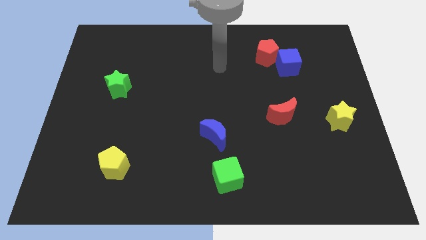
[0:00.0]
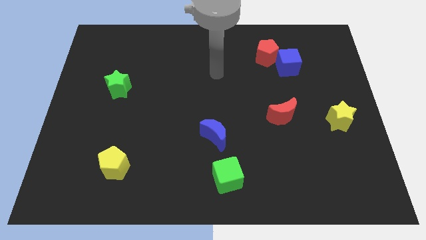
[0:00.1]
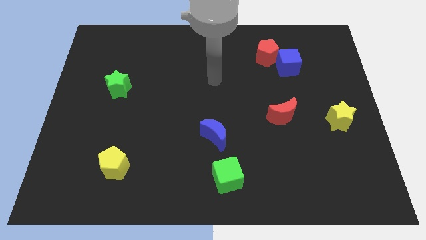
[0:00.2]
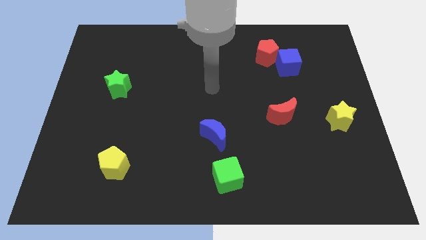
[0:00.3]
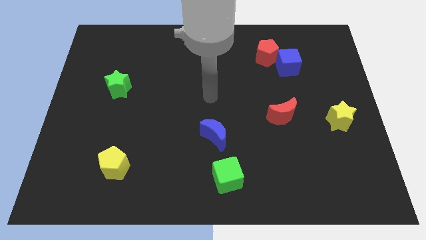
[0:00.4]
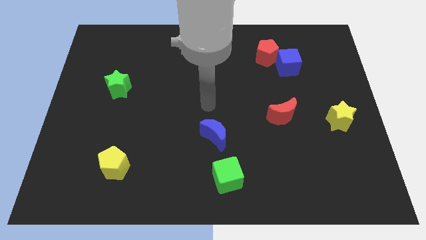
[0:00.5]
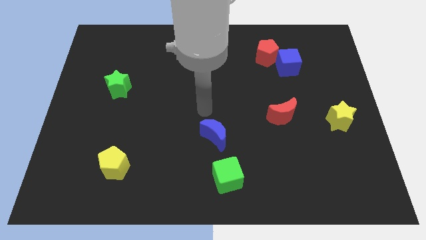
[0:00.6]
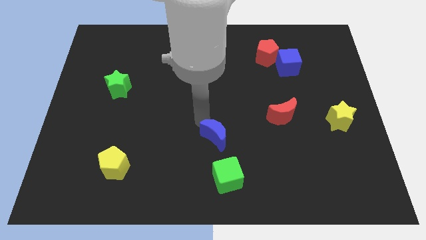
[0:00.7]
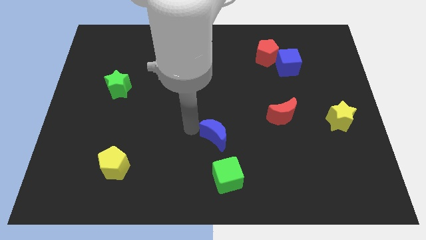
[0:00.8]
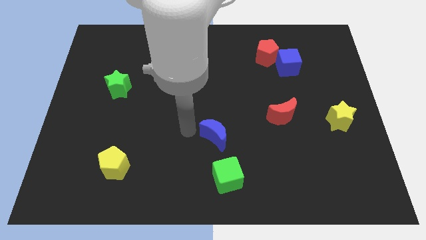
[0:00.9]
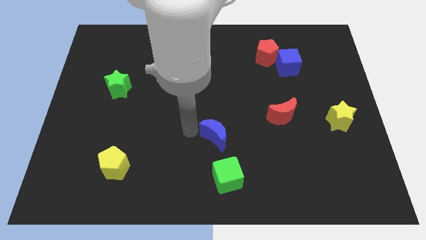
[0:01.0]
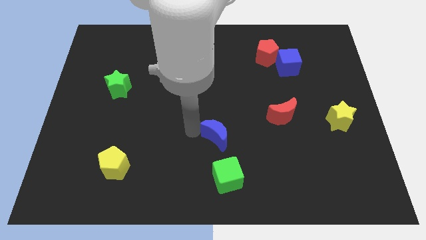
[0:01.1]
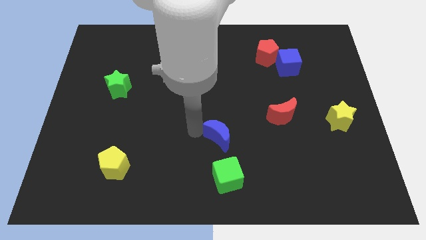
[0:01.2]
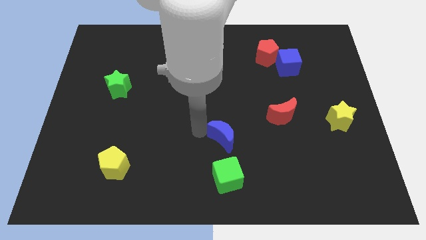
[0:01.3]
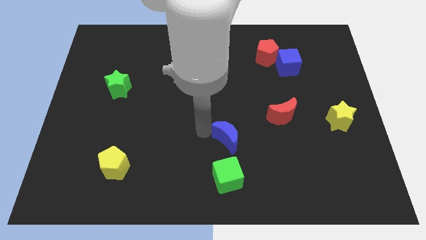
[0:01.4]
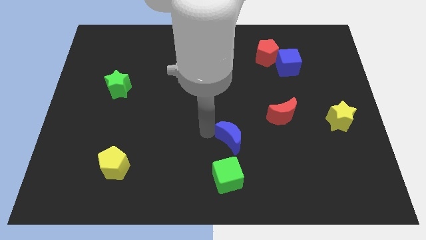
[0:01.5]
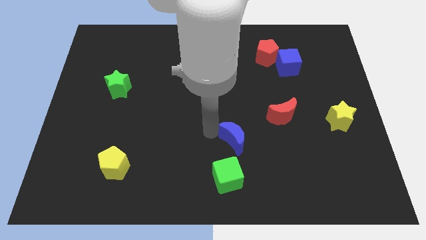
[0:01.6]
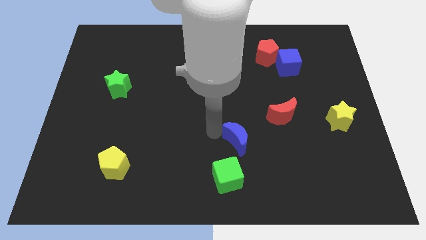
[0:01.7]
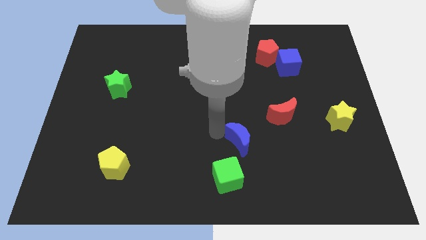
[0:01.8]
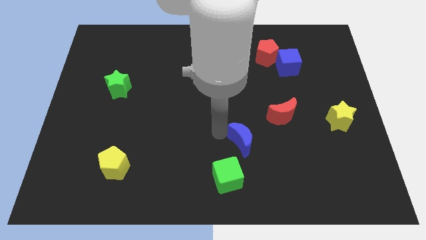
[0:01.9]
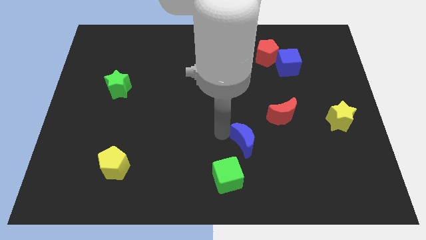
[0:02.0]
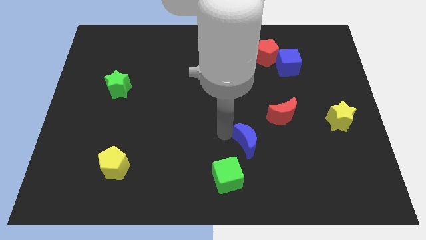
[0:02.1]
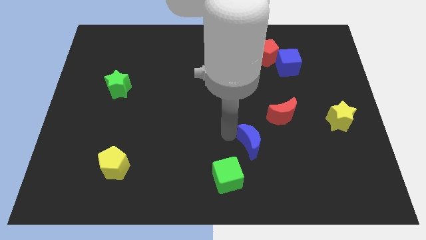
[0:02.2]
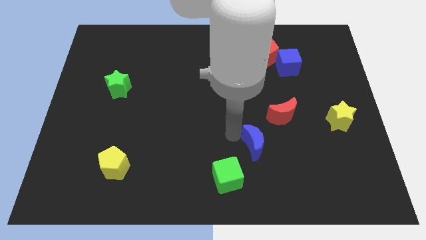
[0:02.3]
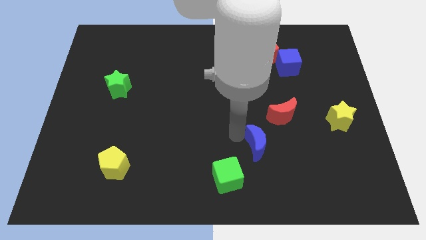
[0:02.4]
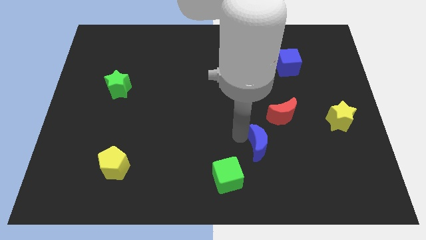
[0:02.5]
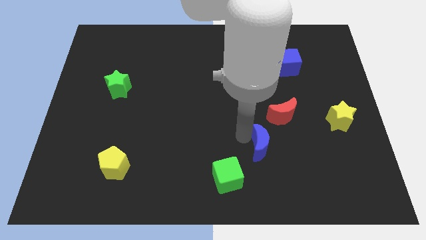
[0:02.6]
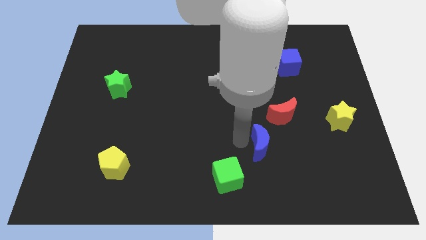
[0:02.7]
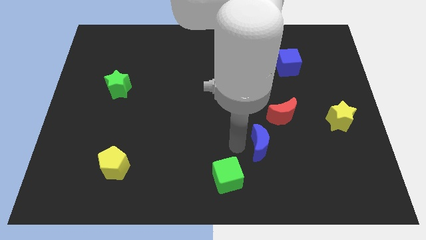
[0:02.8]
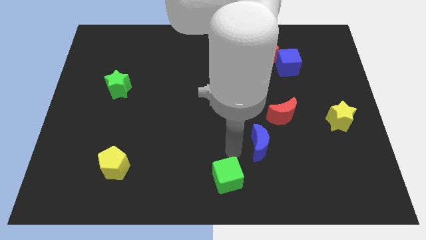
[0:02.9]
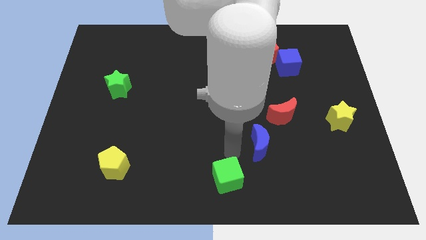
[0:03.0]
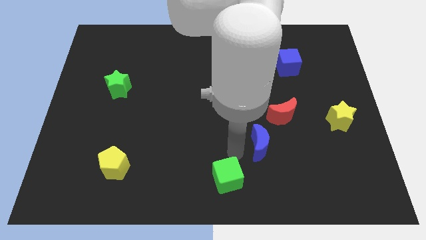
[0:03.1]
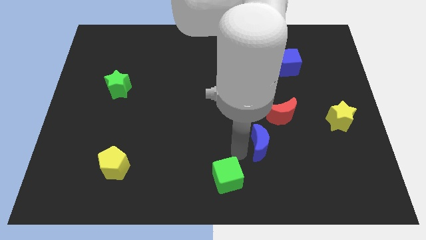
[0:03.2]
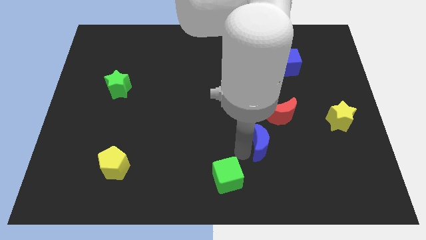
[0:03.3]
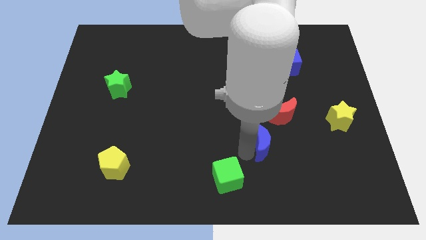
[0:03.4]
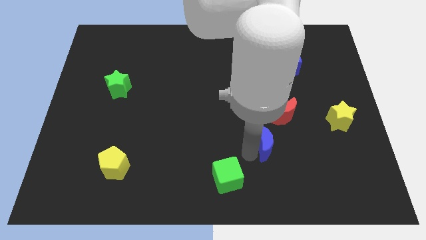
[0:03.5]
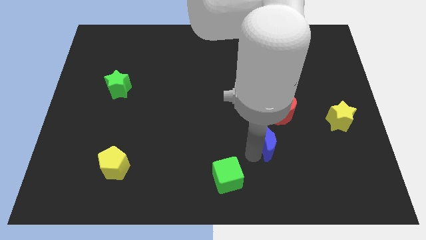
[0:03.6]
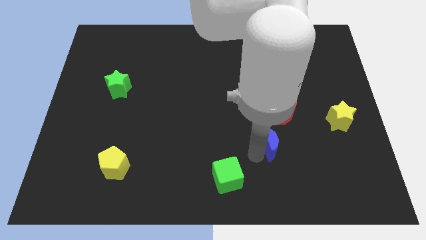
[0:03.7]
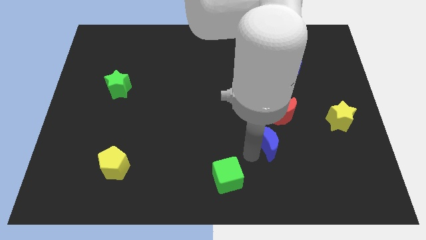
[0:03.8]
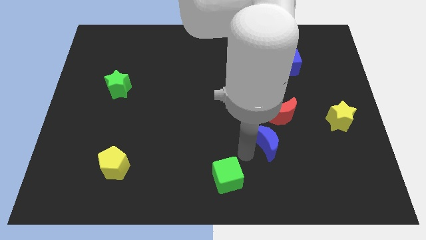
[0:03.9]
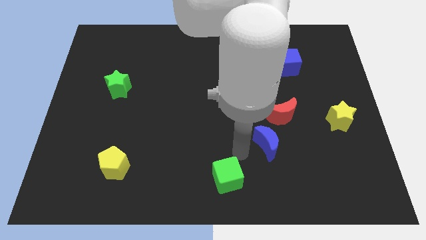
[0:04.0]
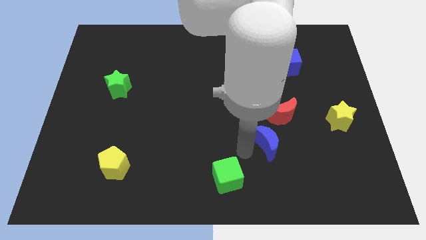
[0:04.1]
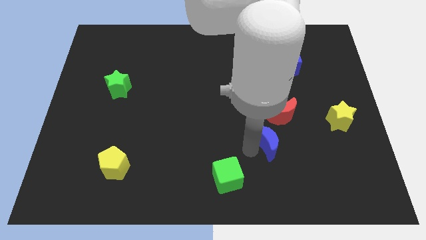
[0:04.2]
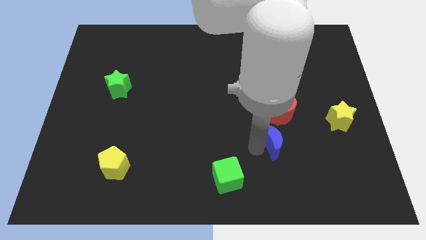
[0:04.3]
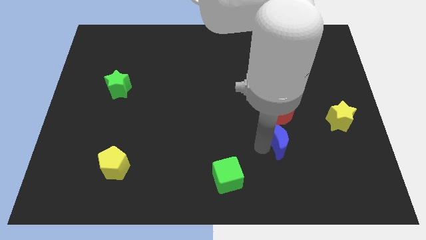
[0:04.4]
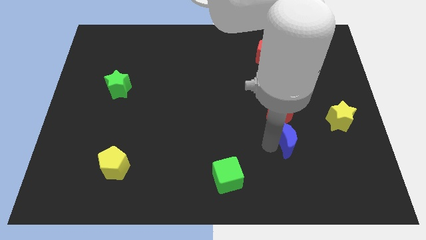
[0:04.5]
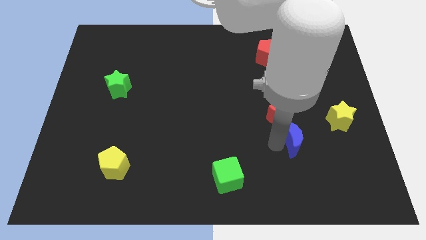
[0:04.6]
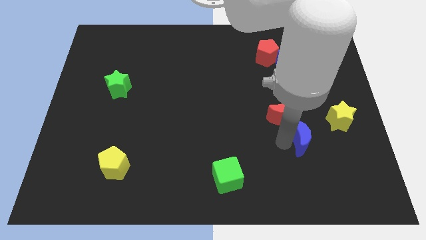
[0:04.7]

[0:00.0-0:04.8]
push the blue moon to the bottom left of the yellow star

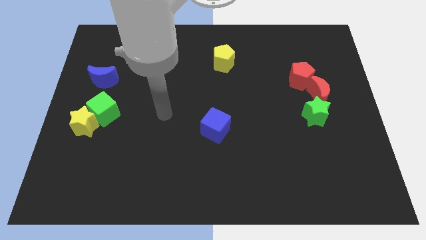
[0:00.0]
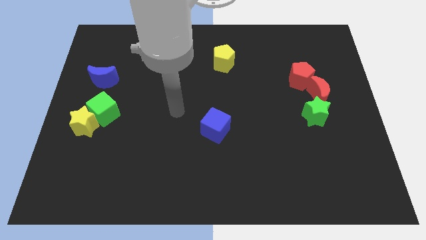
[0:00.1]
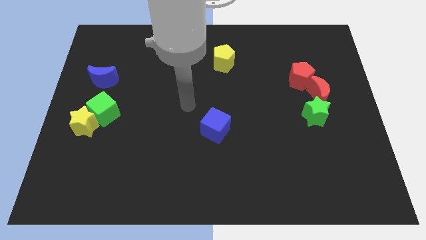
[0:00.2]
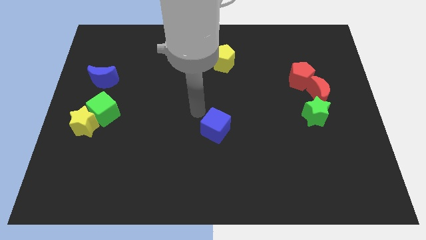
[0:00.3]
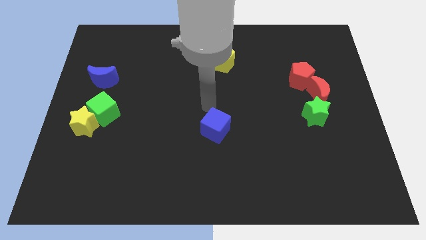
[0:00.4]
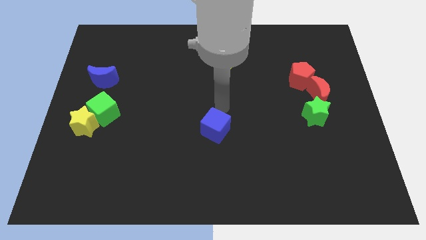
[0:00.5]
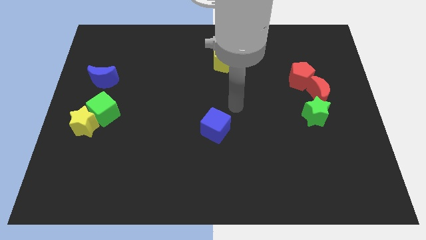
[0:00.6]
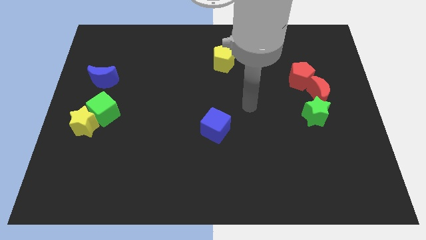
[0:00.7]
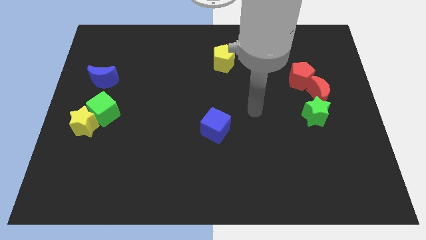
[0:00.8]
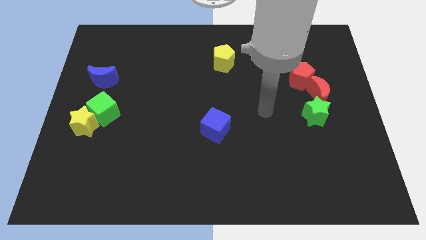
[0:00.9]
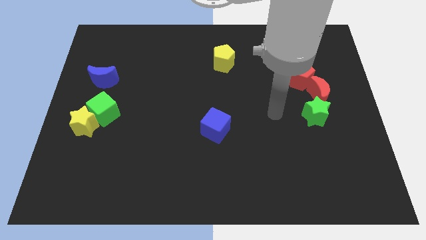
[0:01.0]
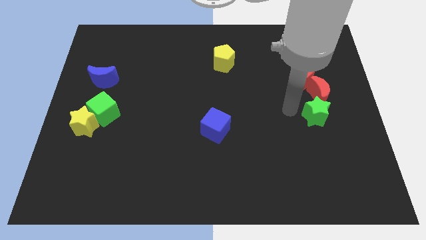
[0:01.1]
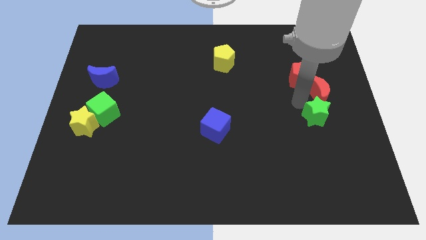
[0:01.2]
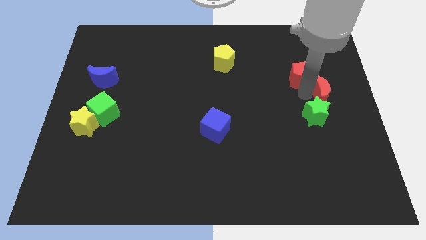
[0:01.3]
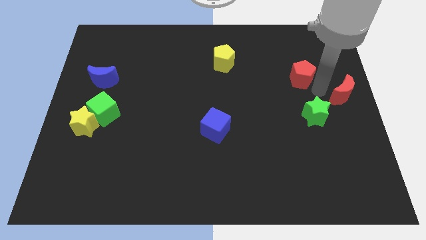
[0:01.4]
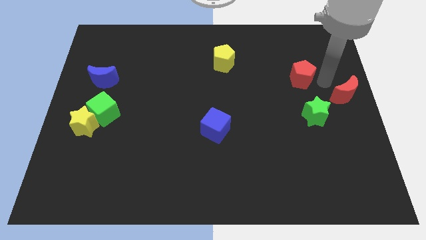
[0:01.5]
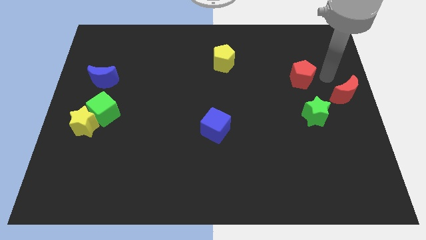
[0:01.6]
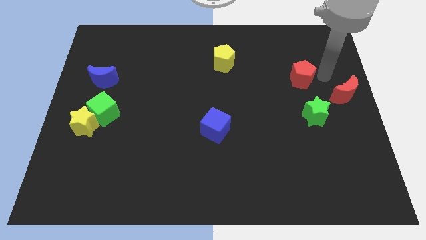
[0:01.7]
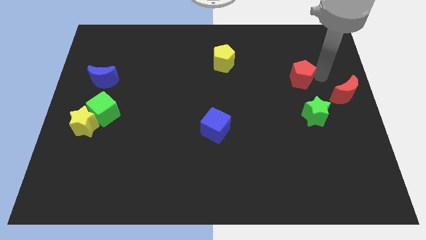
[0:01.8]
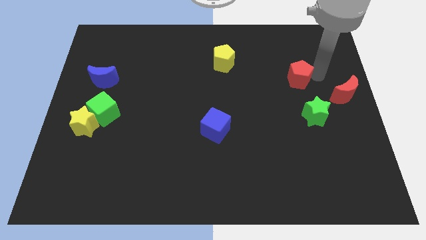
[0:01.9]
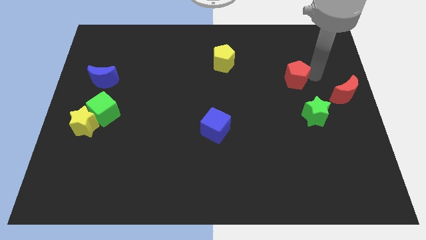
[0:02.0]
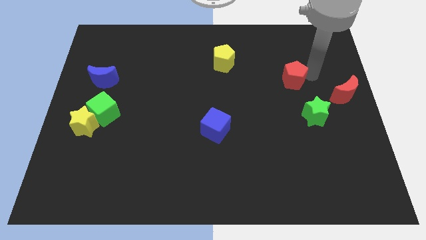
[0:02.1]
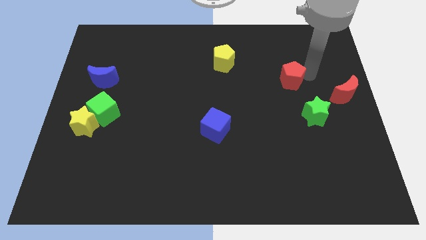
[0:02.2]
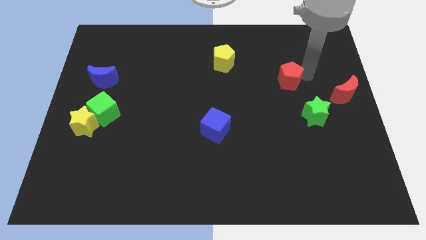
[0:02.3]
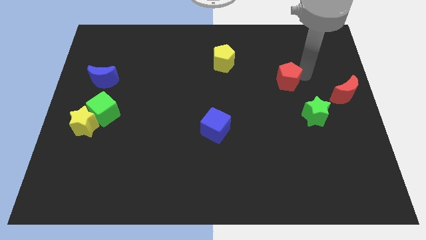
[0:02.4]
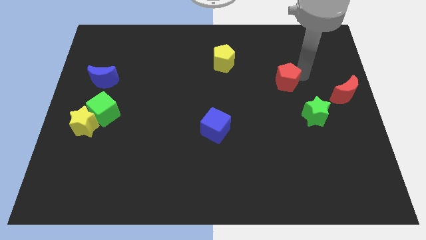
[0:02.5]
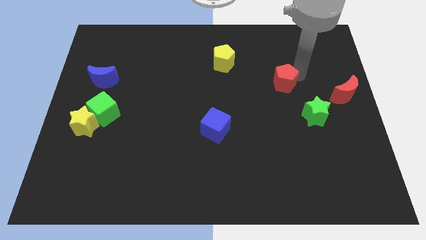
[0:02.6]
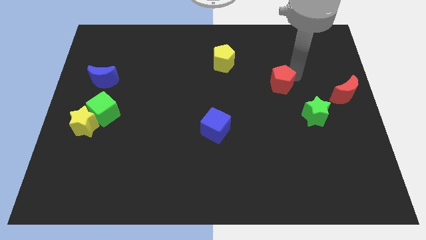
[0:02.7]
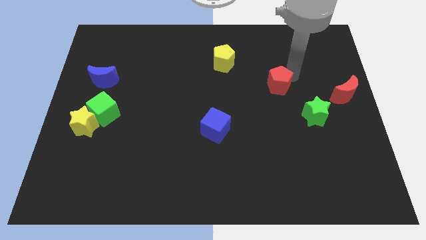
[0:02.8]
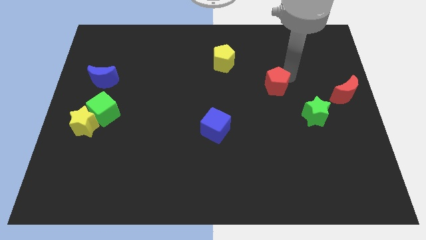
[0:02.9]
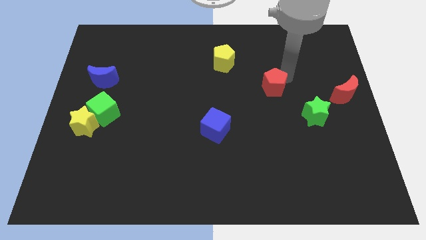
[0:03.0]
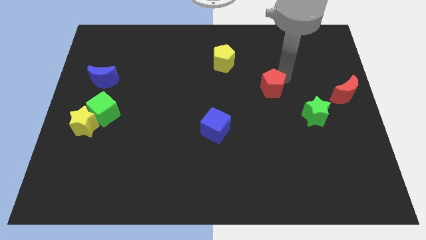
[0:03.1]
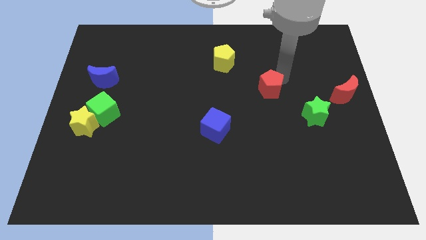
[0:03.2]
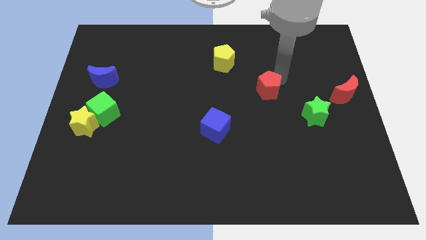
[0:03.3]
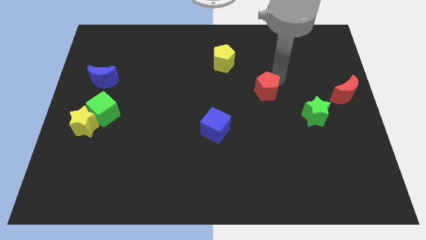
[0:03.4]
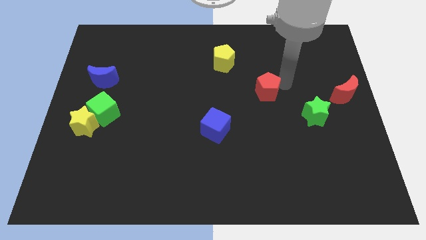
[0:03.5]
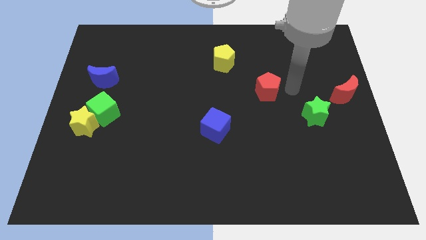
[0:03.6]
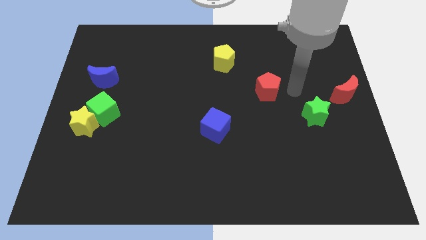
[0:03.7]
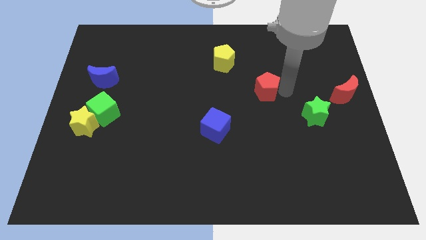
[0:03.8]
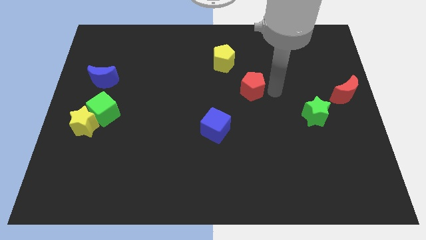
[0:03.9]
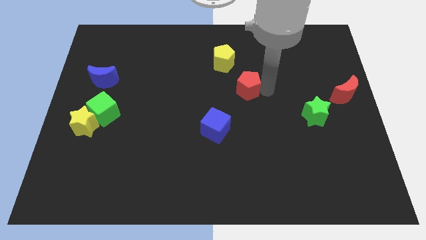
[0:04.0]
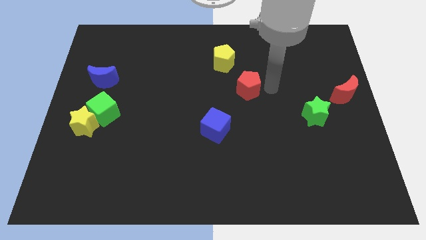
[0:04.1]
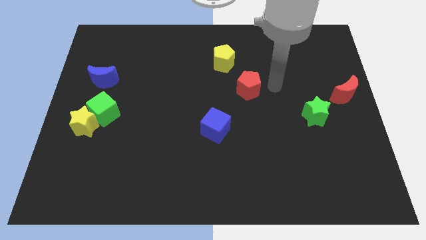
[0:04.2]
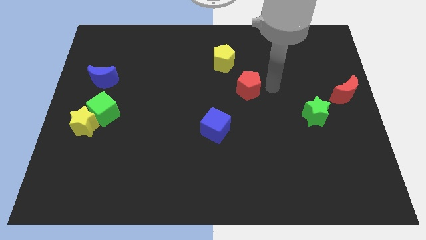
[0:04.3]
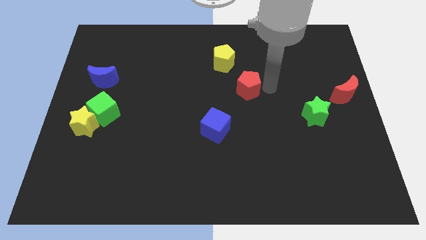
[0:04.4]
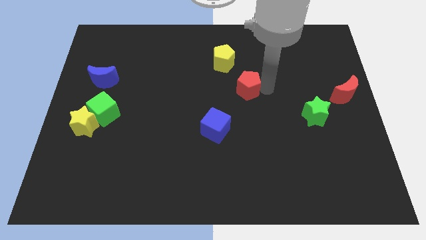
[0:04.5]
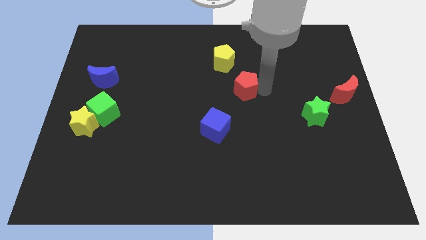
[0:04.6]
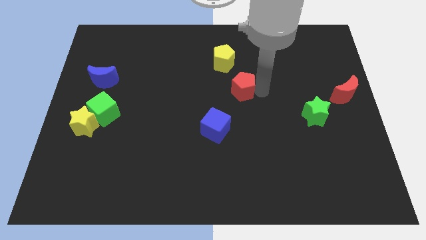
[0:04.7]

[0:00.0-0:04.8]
push the red pentagon below the yellow pentagon
